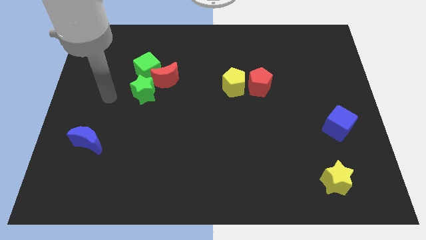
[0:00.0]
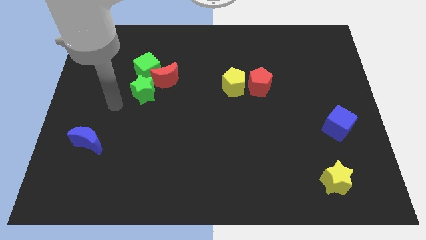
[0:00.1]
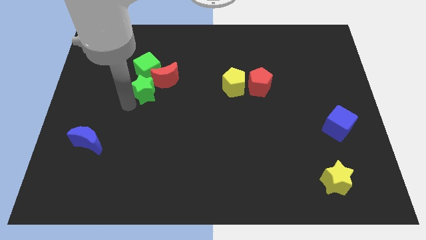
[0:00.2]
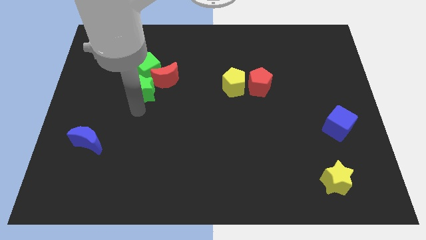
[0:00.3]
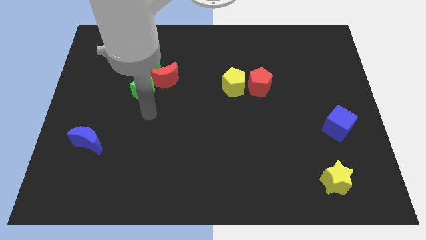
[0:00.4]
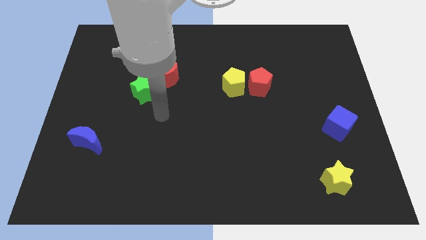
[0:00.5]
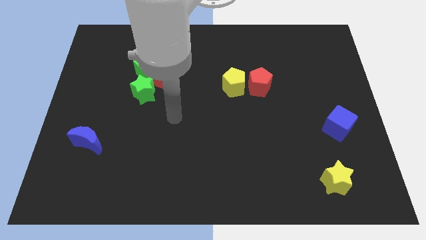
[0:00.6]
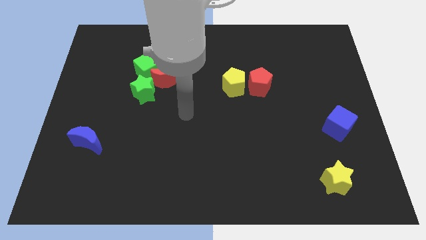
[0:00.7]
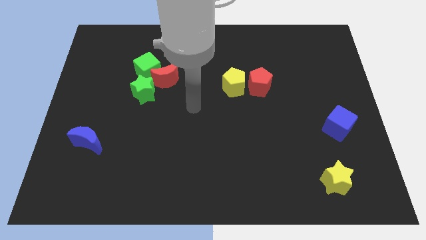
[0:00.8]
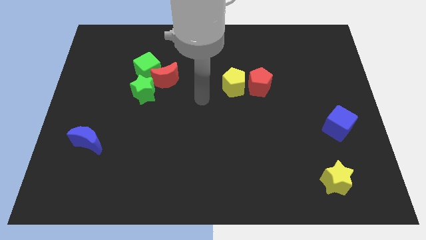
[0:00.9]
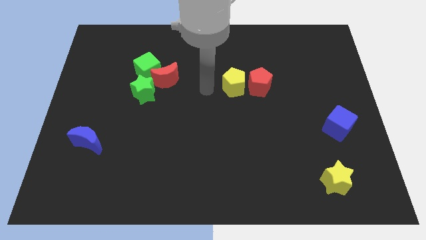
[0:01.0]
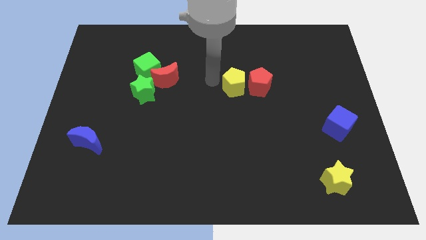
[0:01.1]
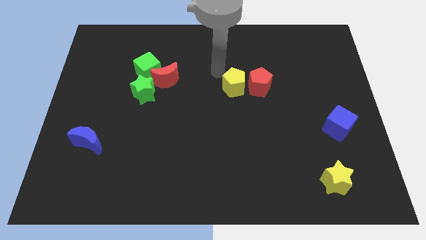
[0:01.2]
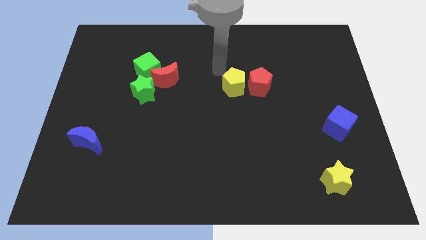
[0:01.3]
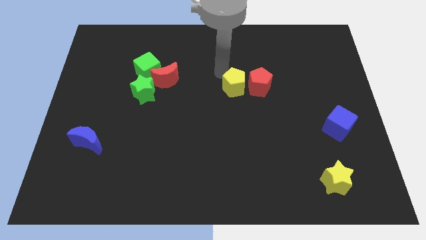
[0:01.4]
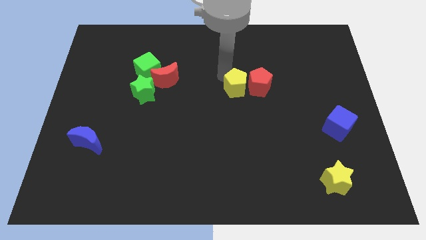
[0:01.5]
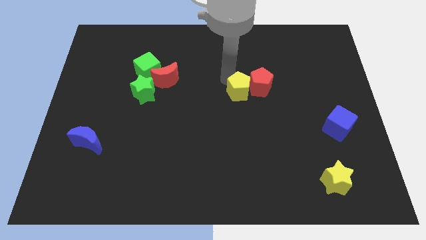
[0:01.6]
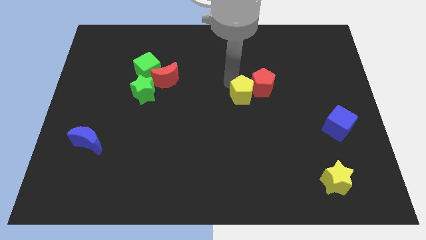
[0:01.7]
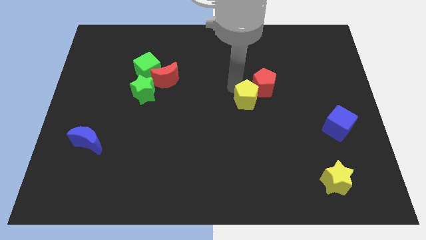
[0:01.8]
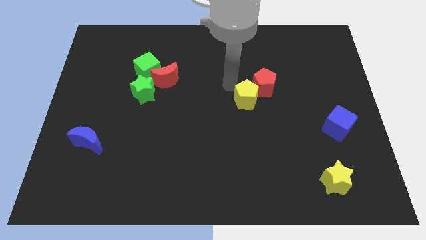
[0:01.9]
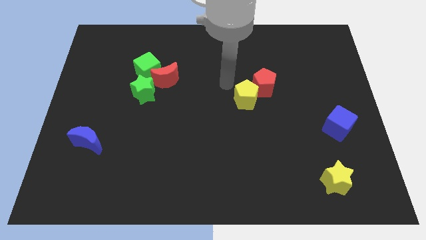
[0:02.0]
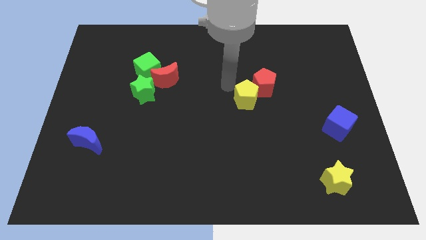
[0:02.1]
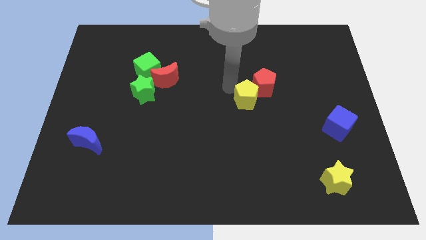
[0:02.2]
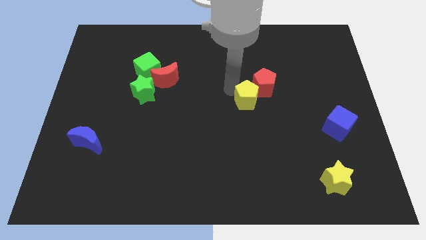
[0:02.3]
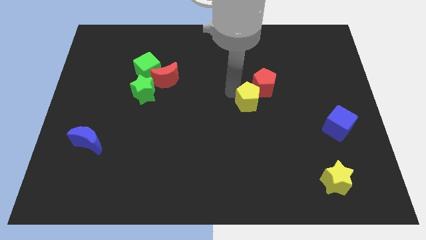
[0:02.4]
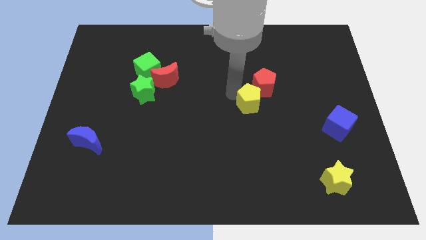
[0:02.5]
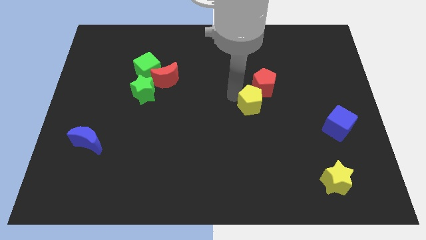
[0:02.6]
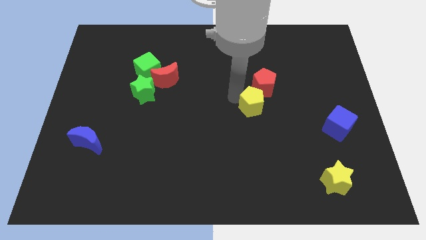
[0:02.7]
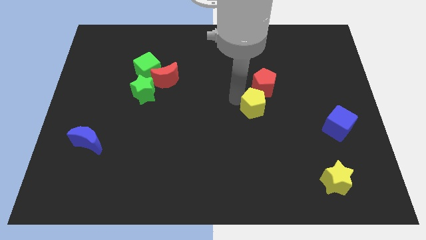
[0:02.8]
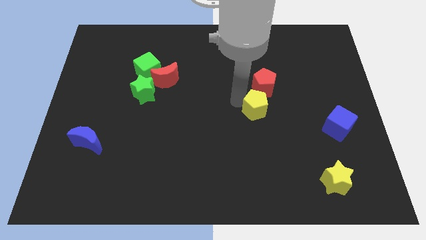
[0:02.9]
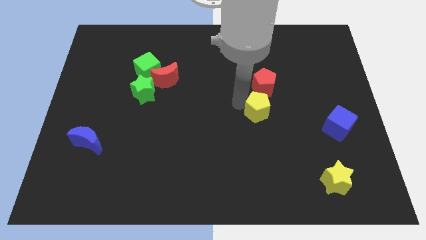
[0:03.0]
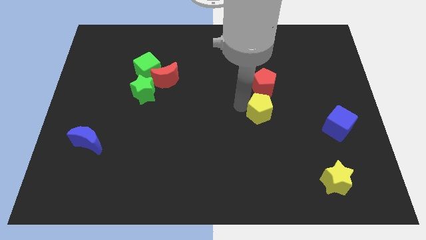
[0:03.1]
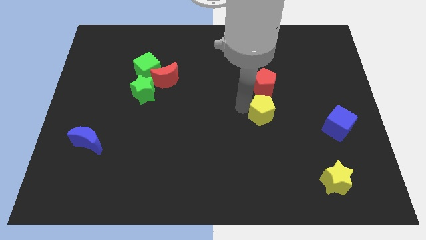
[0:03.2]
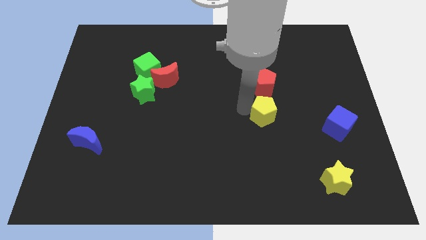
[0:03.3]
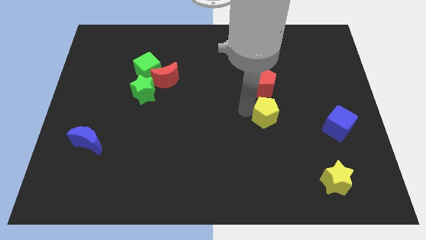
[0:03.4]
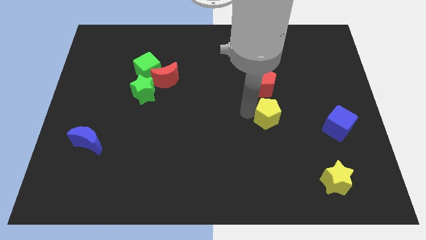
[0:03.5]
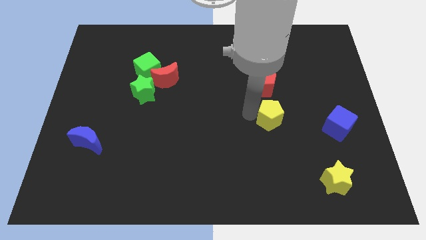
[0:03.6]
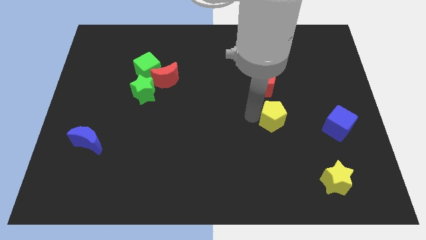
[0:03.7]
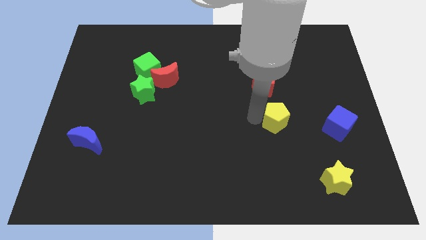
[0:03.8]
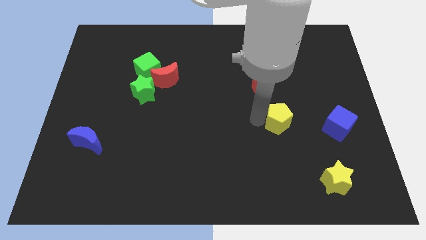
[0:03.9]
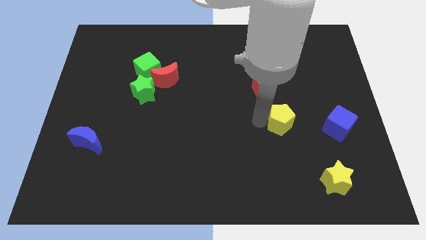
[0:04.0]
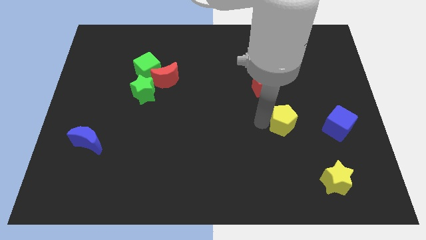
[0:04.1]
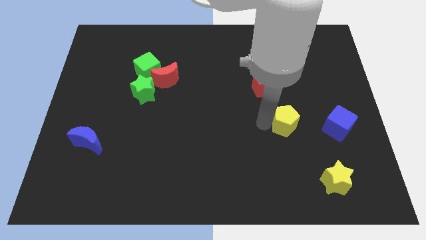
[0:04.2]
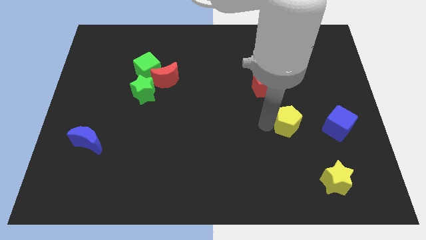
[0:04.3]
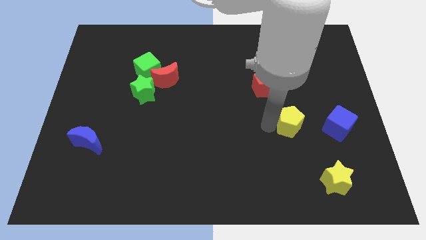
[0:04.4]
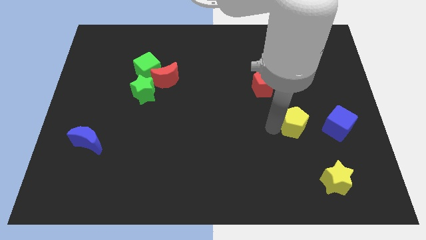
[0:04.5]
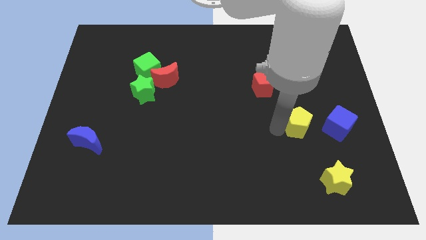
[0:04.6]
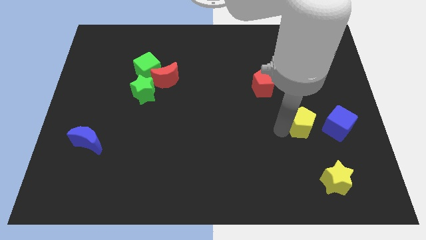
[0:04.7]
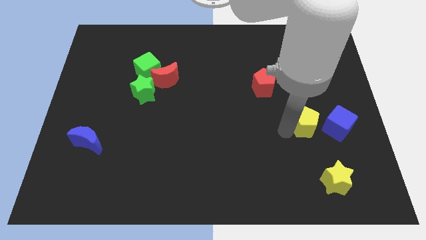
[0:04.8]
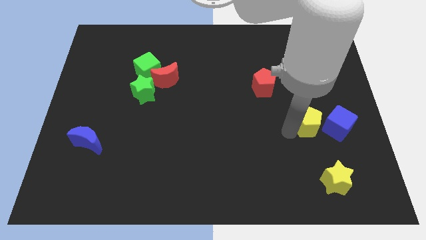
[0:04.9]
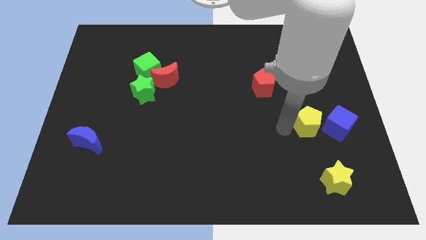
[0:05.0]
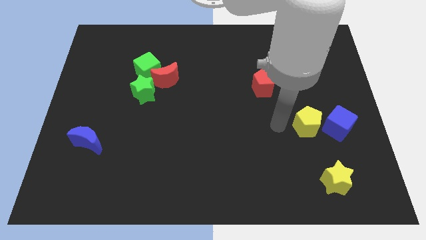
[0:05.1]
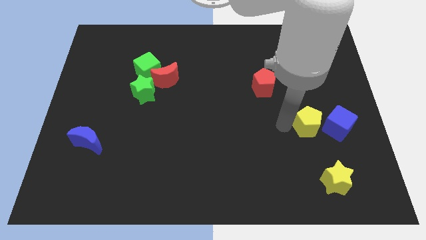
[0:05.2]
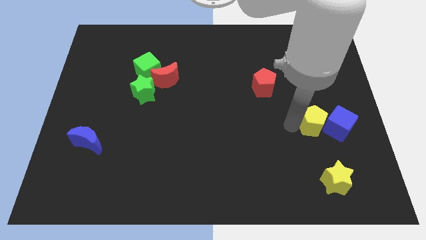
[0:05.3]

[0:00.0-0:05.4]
slide the yellow pentagon next to the blue cube

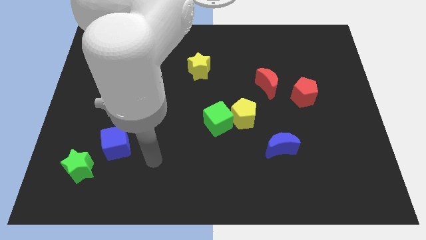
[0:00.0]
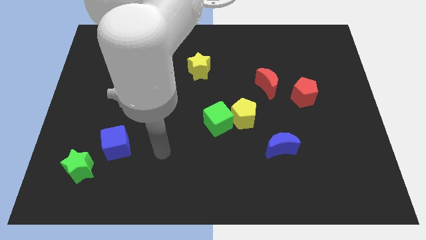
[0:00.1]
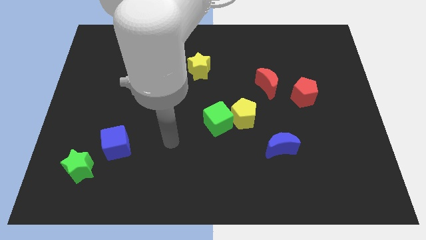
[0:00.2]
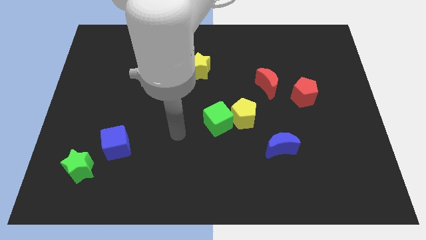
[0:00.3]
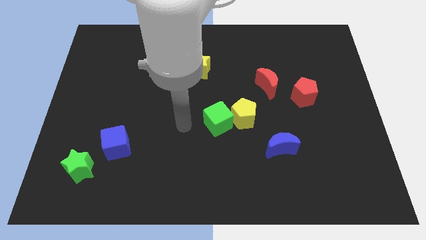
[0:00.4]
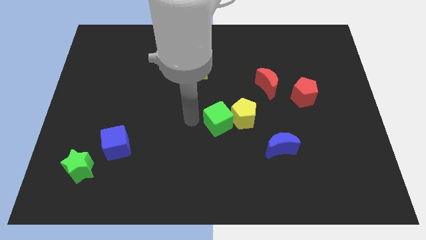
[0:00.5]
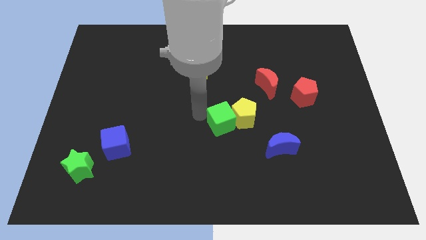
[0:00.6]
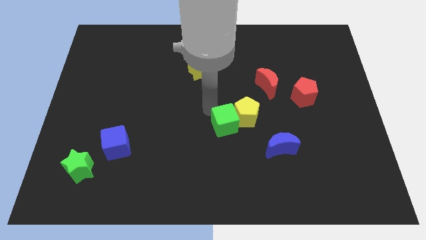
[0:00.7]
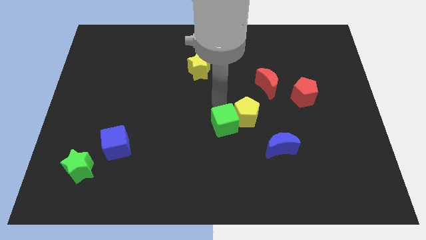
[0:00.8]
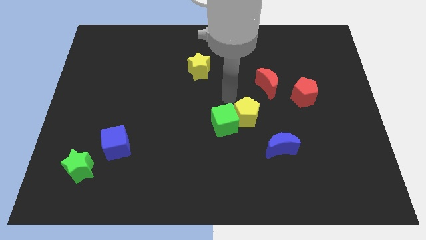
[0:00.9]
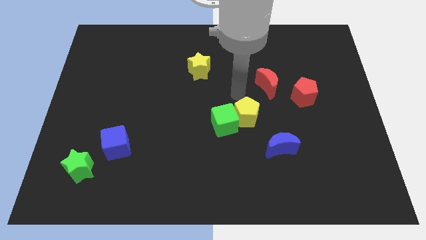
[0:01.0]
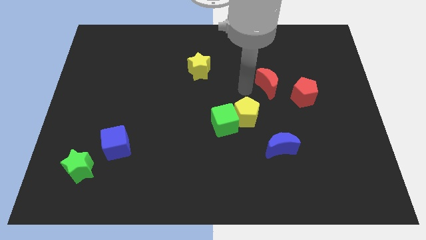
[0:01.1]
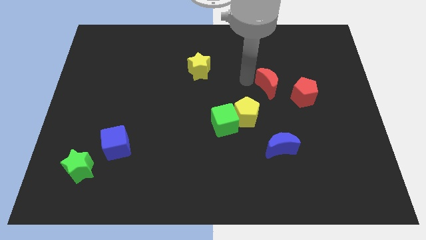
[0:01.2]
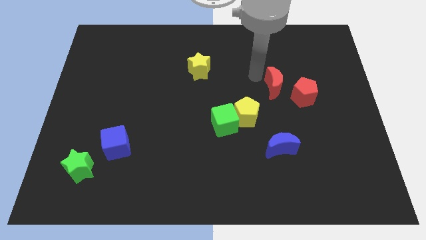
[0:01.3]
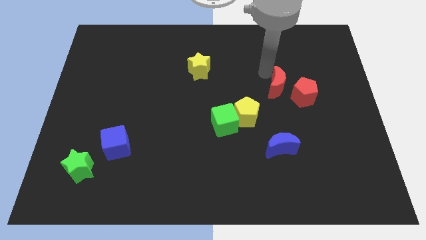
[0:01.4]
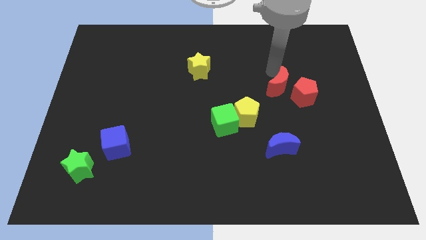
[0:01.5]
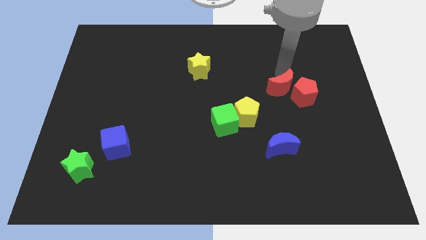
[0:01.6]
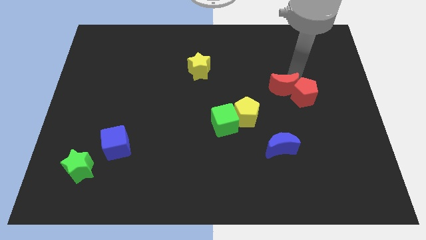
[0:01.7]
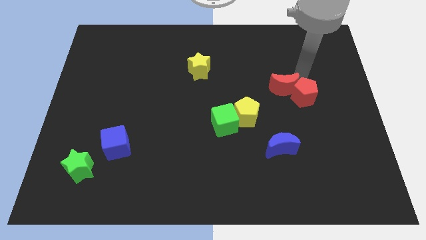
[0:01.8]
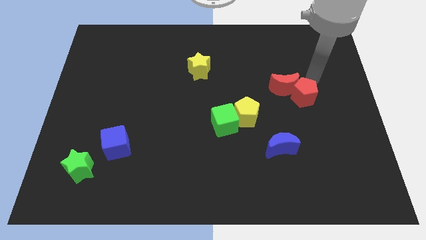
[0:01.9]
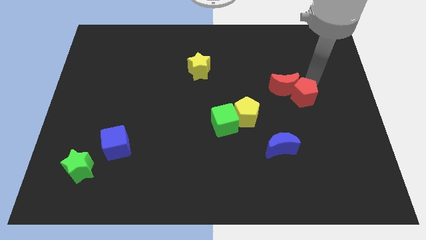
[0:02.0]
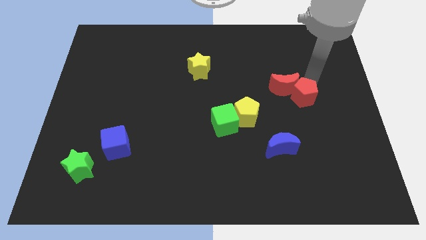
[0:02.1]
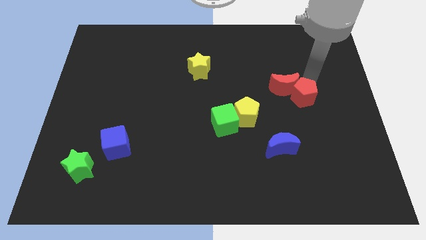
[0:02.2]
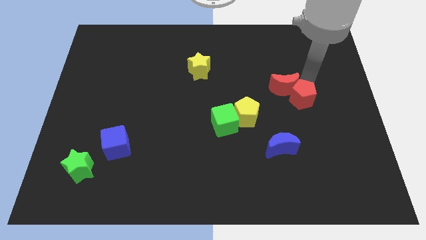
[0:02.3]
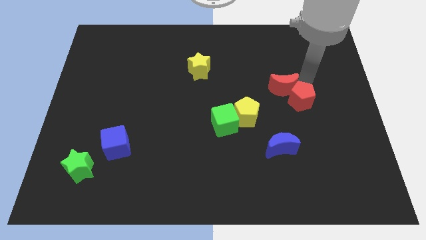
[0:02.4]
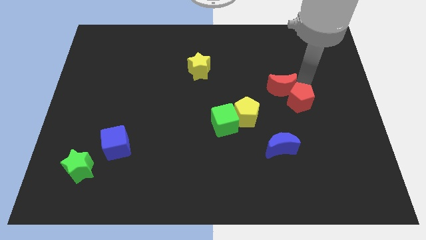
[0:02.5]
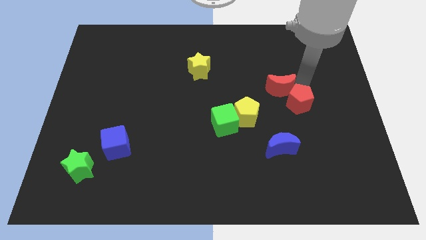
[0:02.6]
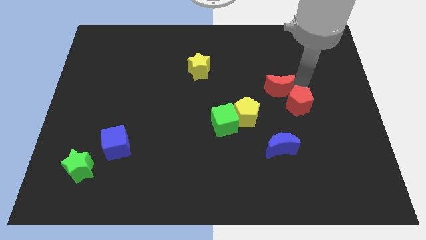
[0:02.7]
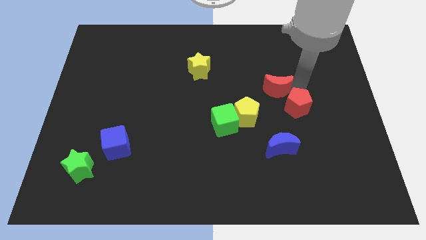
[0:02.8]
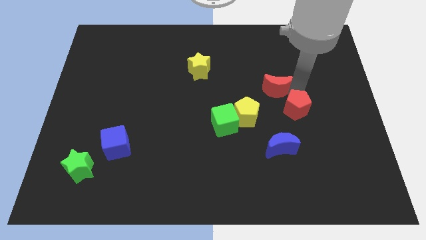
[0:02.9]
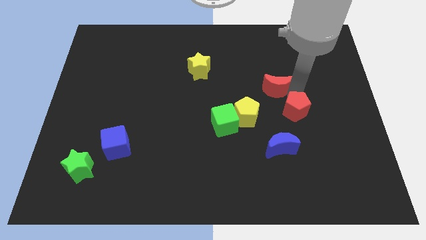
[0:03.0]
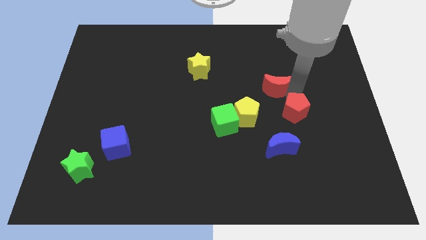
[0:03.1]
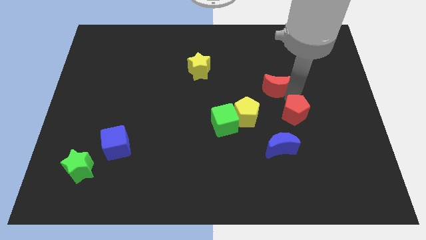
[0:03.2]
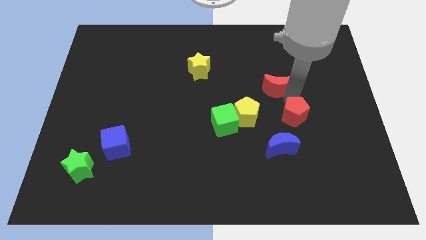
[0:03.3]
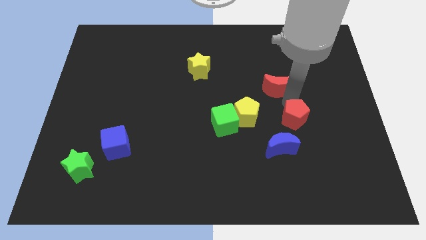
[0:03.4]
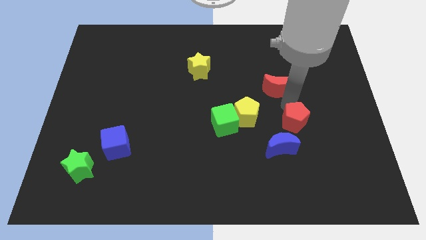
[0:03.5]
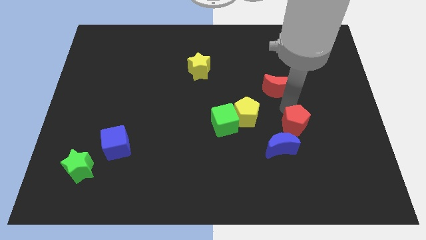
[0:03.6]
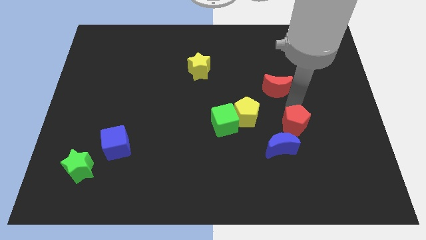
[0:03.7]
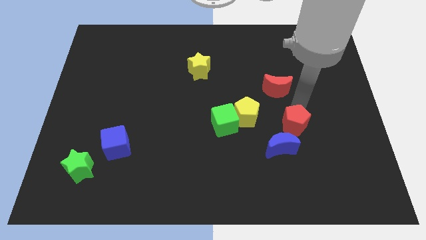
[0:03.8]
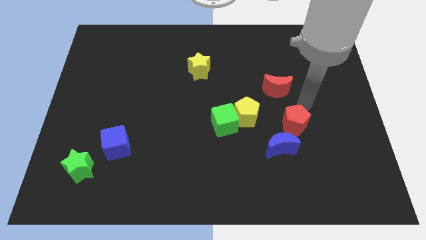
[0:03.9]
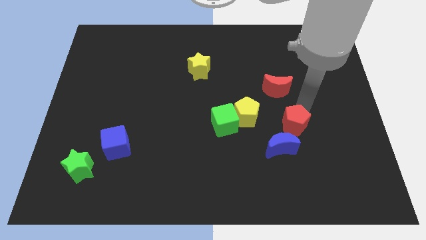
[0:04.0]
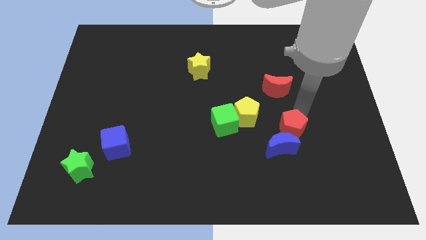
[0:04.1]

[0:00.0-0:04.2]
push the red pentagon to the blue moon
